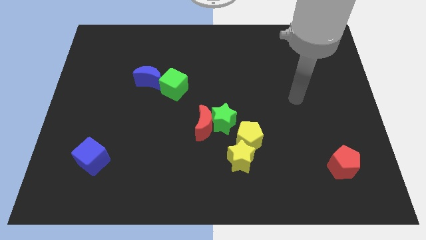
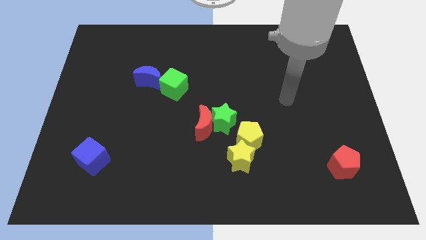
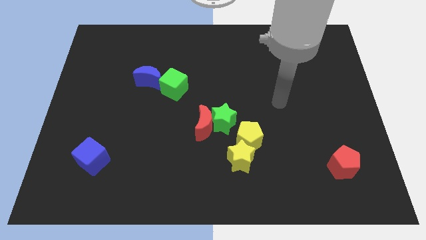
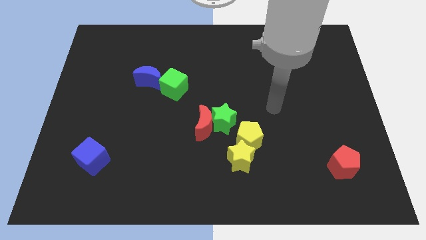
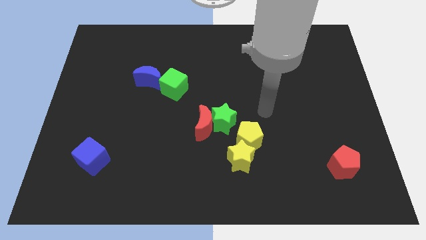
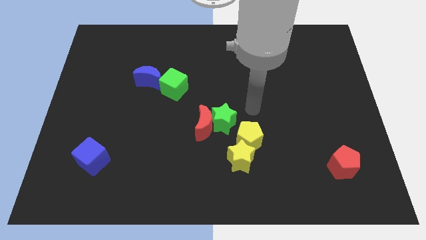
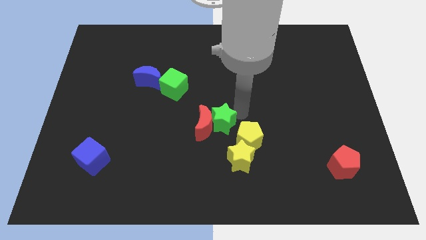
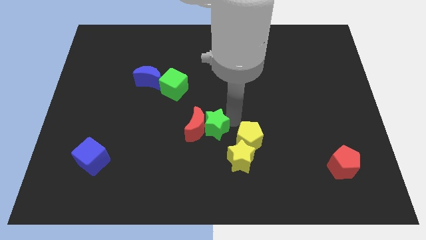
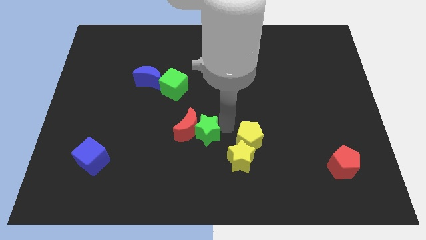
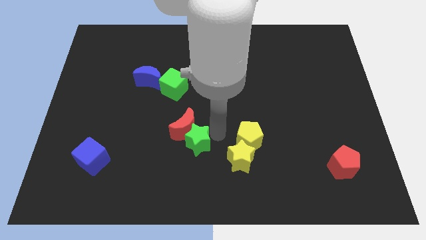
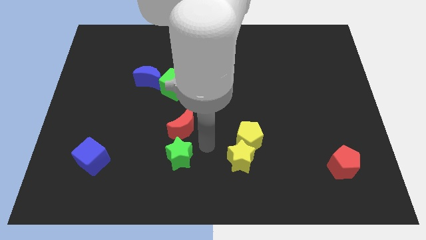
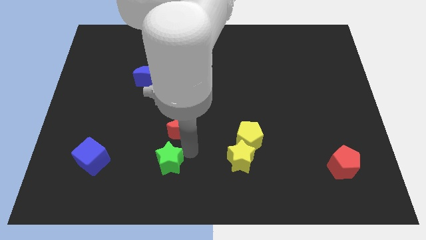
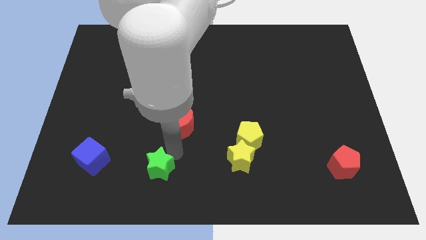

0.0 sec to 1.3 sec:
move the red moon away from the green star

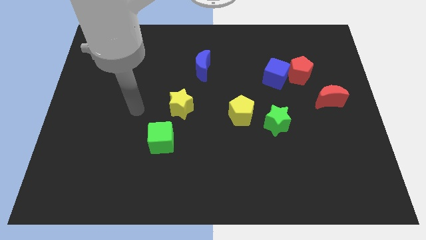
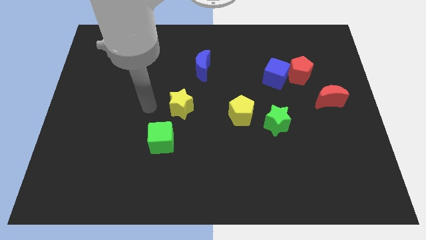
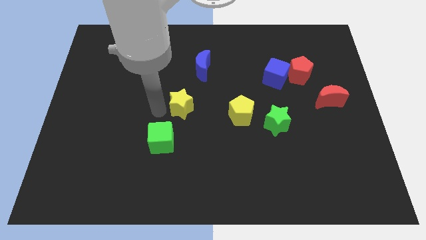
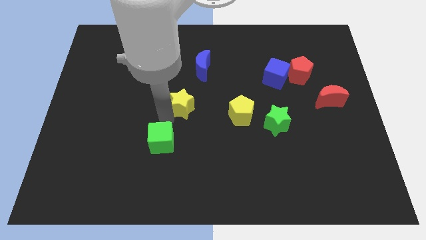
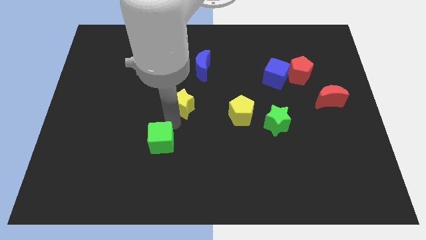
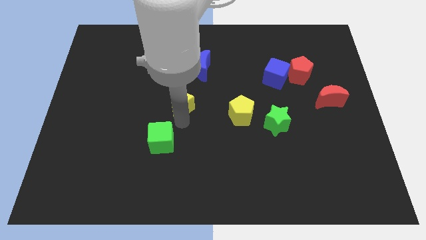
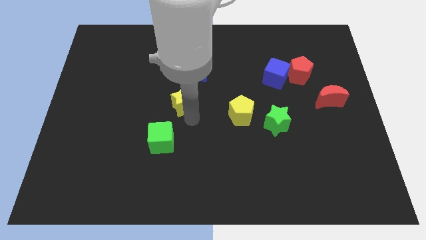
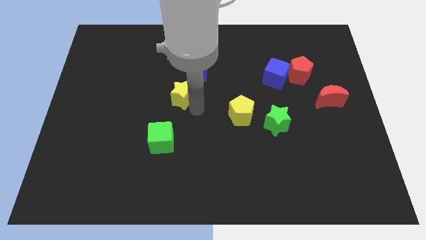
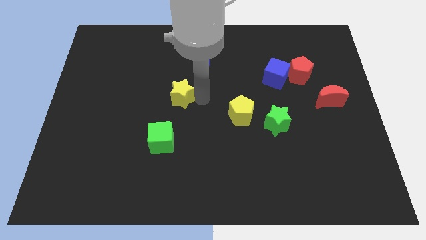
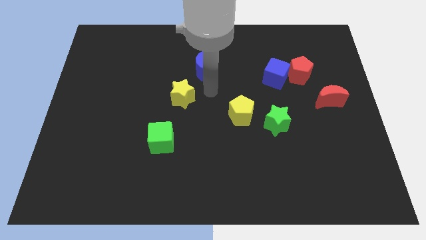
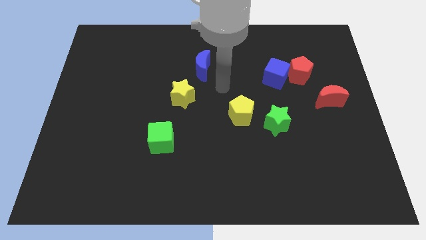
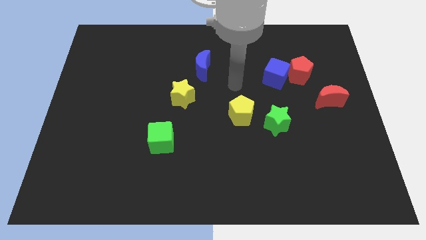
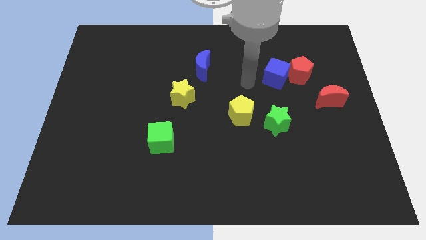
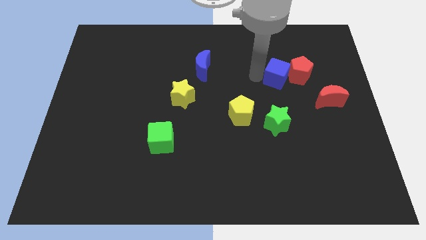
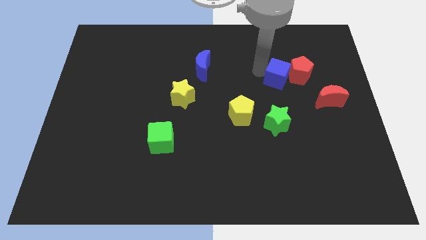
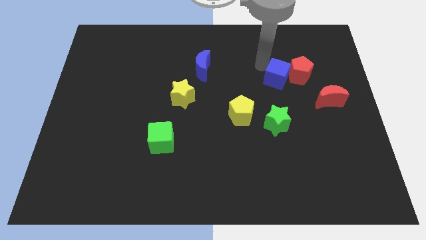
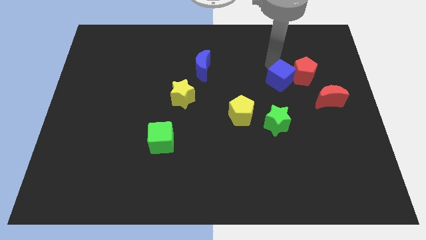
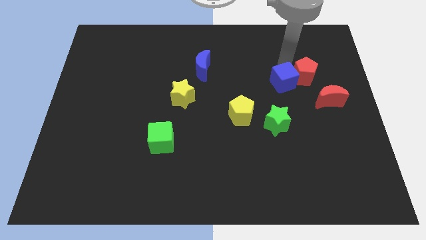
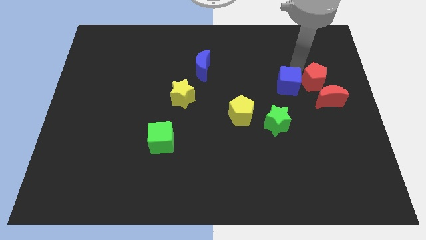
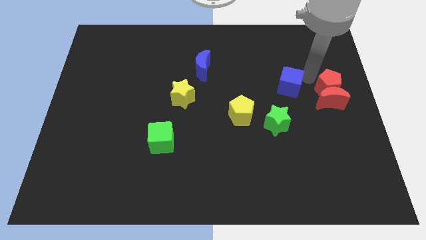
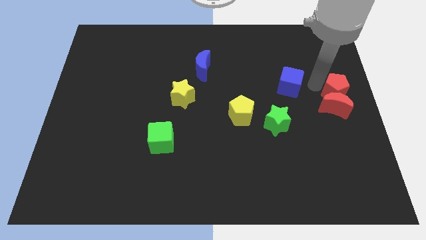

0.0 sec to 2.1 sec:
pull the blue cube apart from the red pentagon

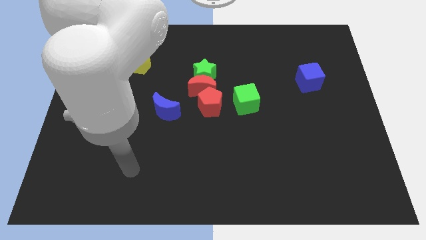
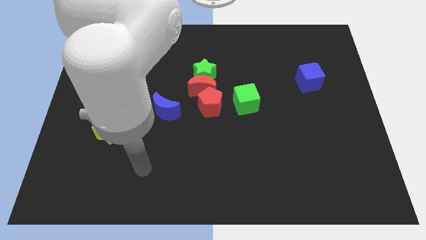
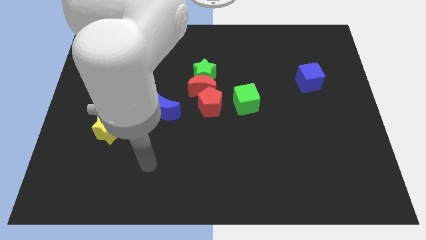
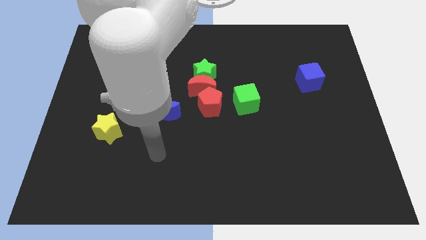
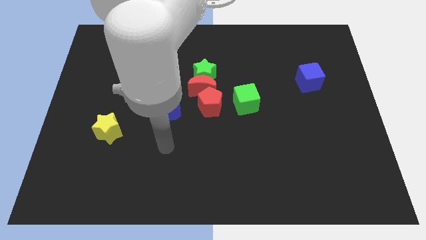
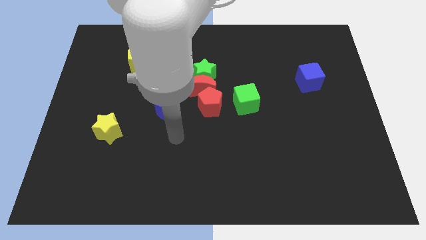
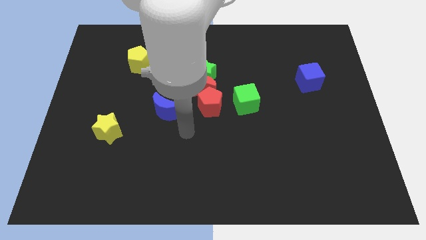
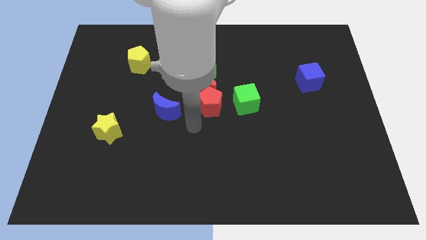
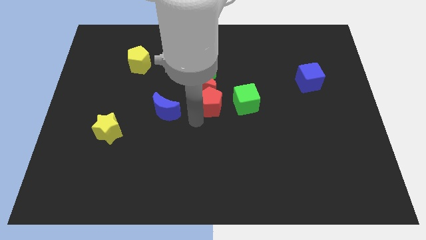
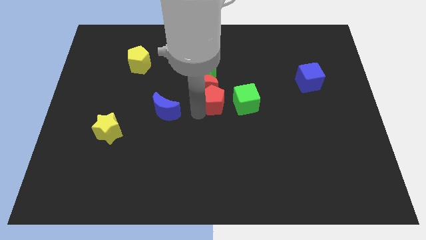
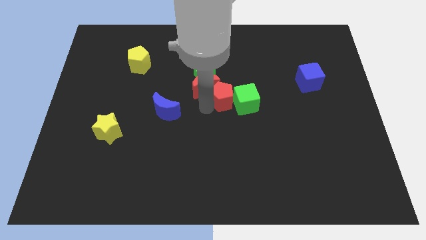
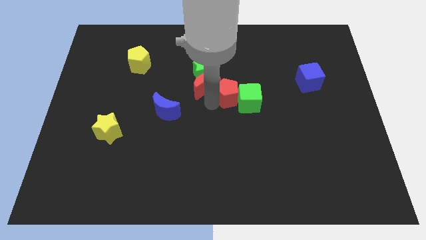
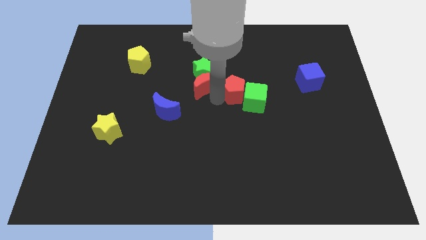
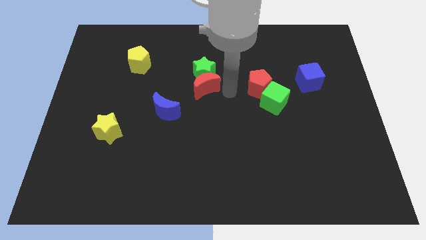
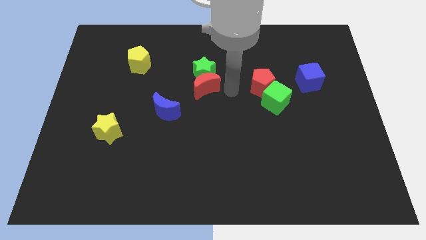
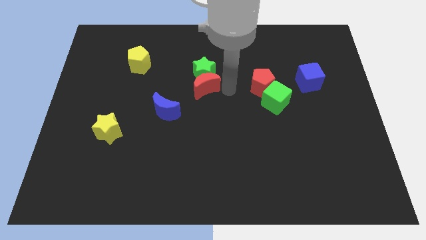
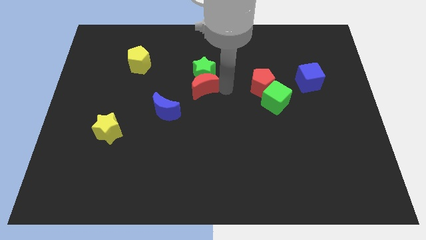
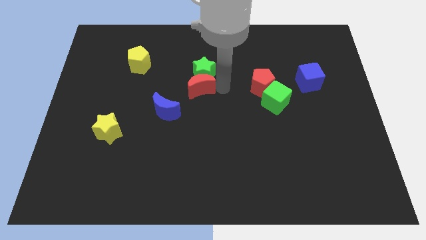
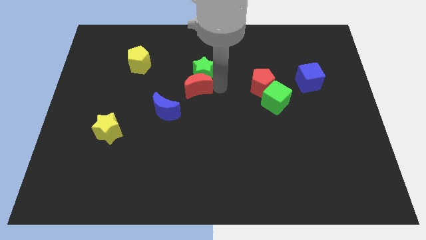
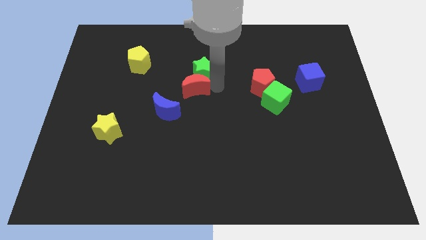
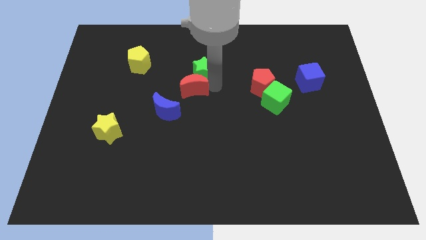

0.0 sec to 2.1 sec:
separate the red moon from the green star and red pentagon

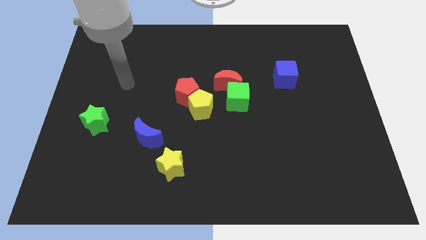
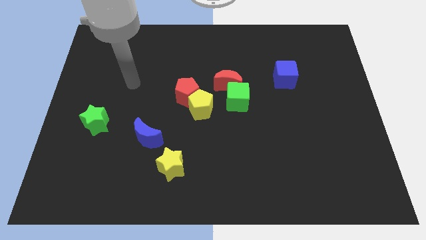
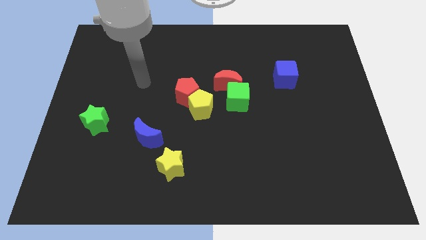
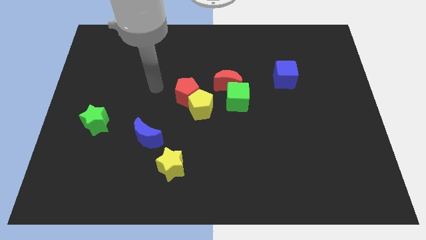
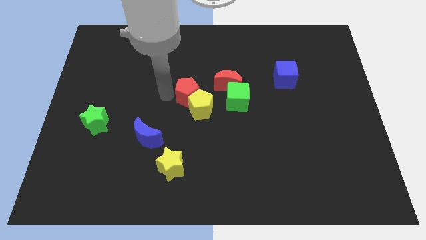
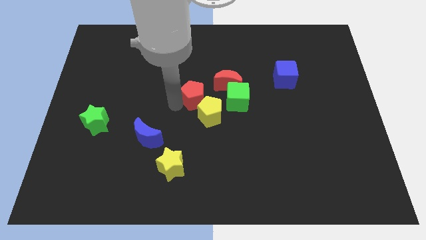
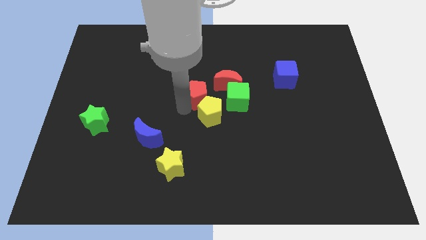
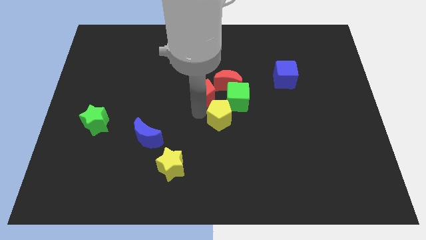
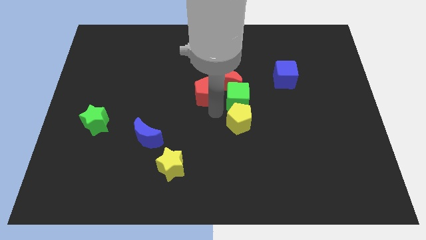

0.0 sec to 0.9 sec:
move the red pentagon away from the yellow pentagon

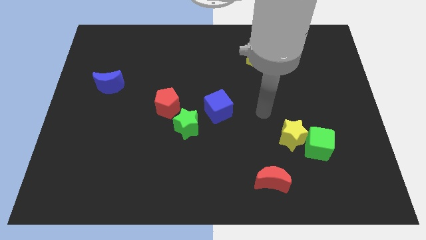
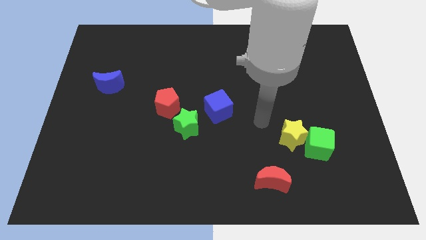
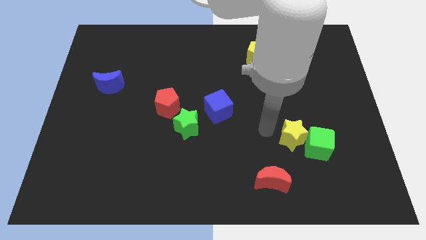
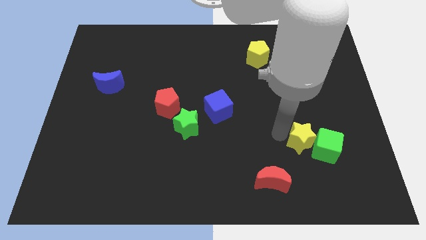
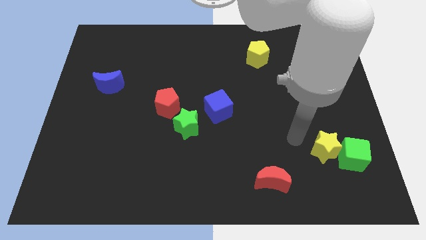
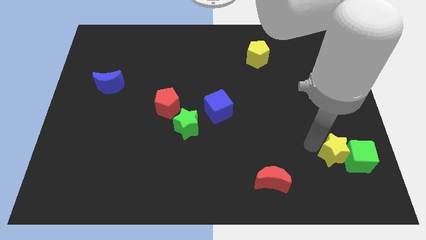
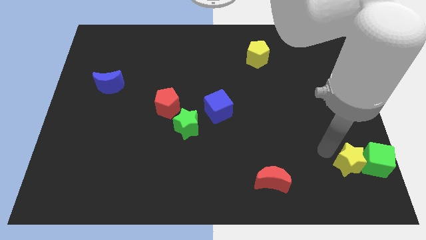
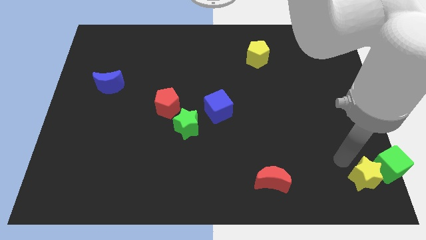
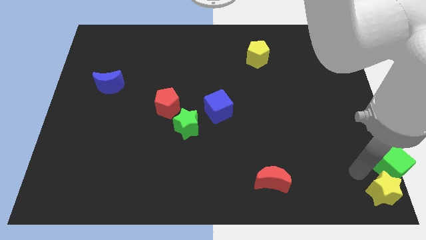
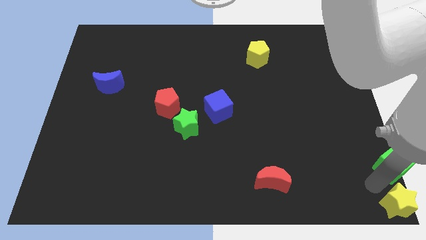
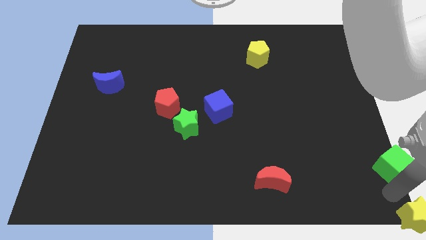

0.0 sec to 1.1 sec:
pull the green cube apart from the yellow star

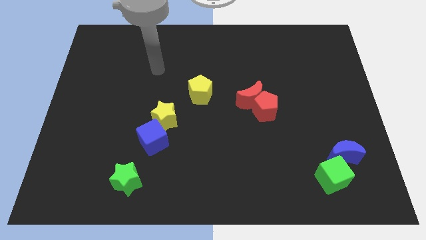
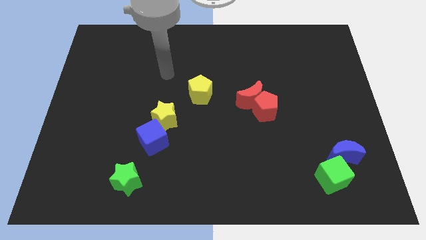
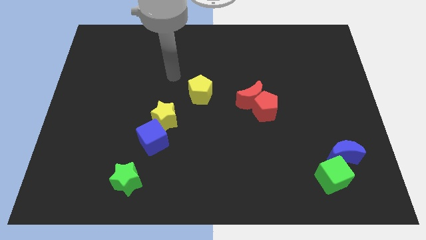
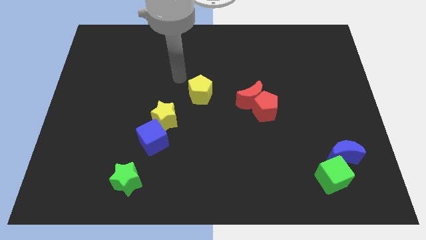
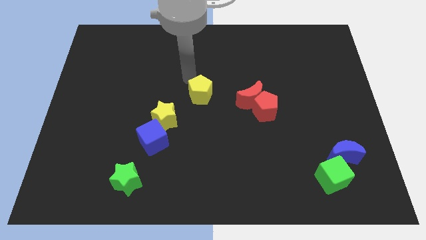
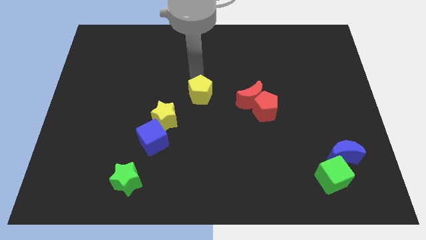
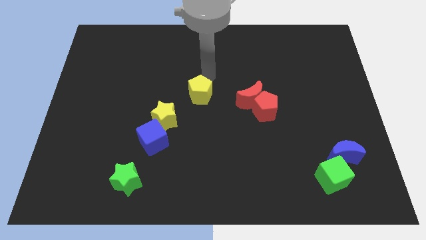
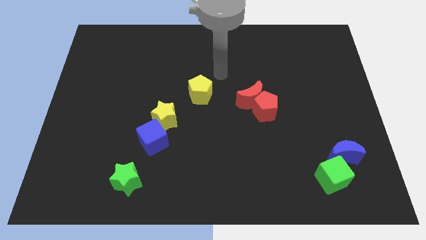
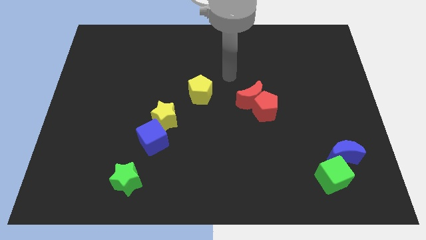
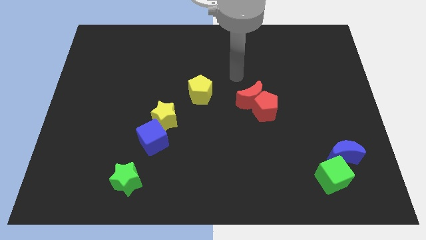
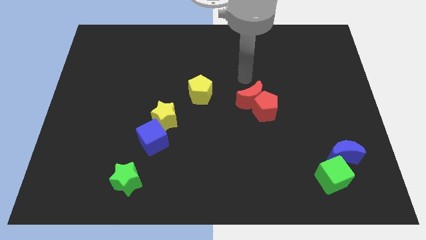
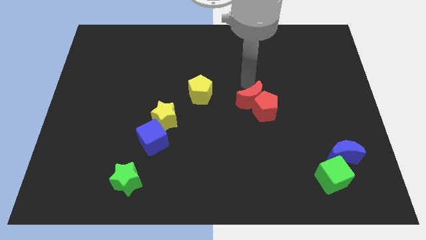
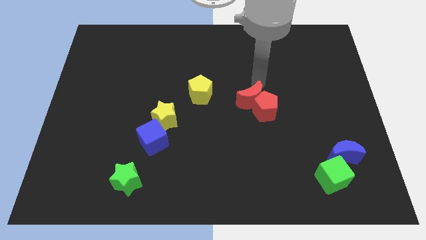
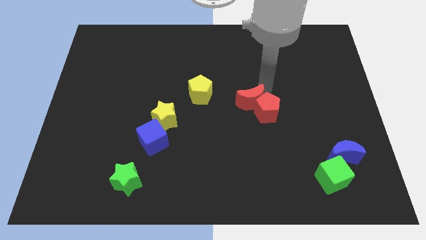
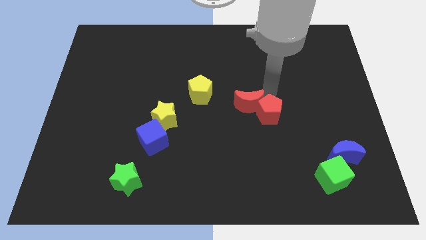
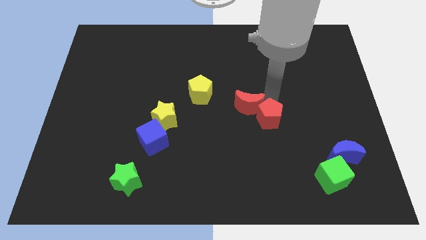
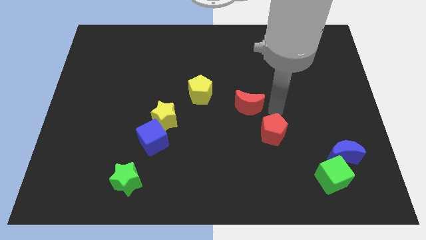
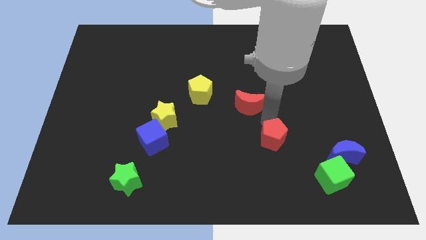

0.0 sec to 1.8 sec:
move the red moon away from the red pentagon
